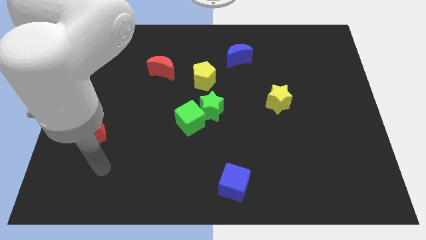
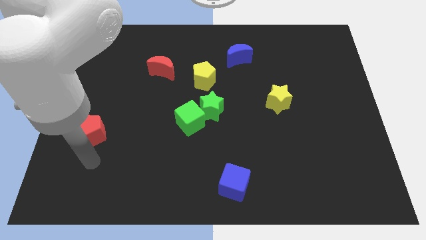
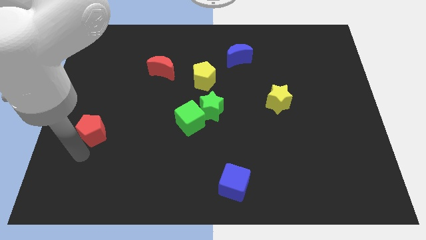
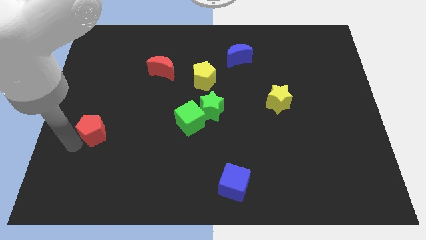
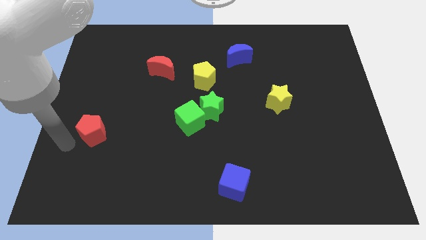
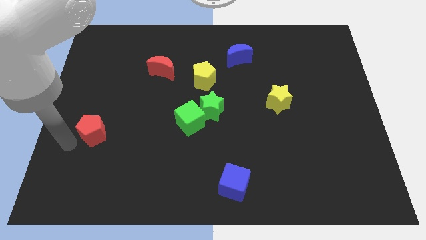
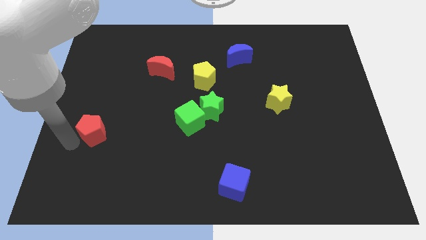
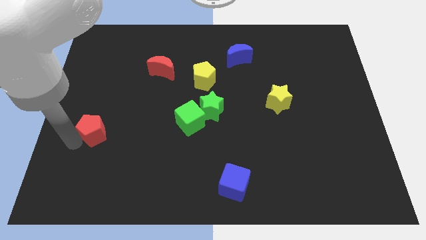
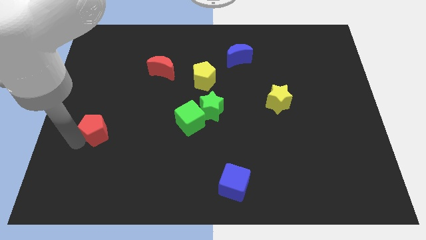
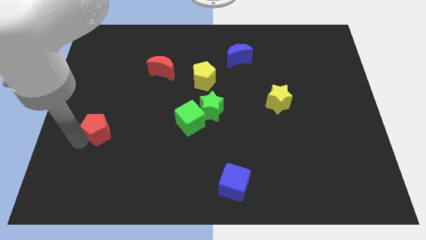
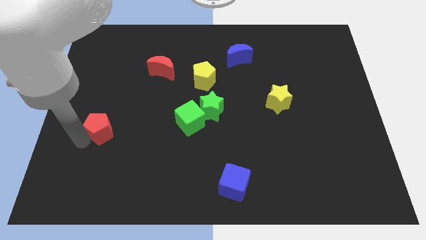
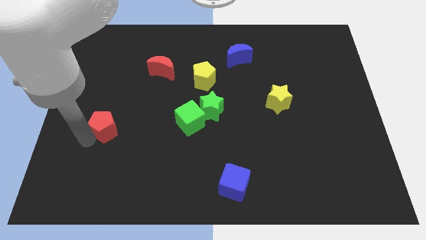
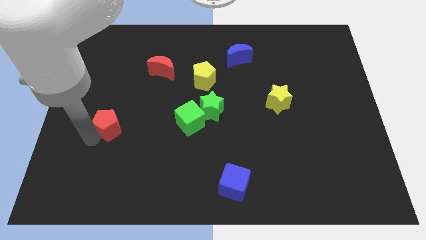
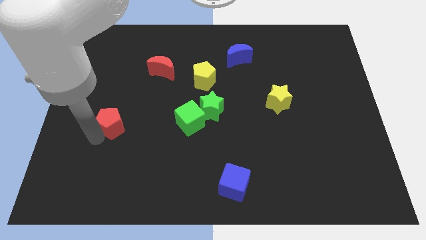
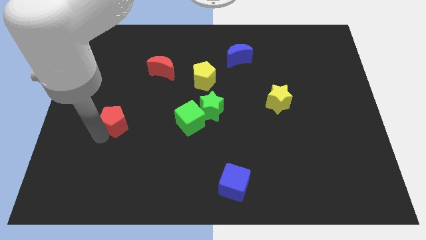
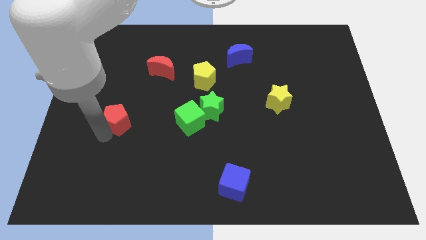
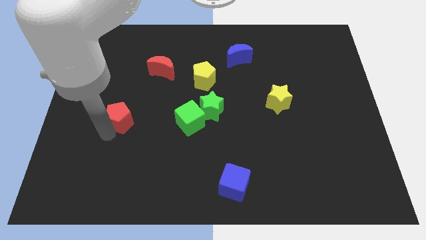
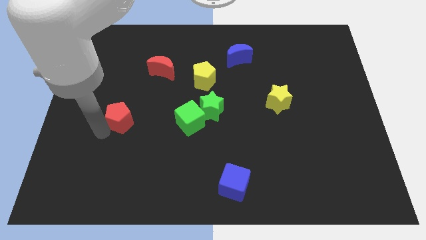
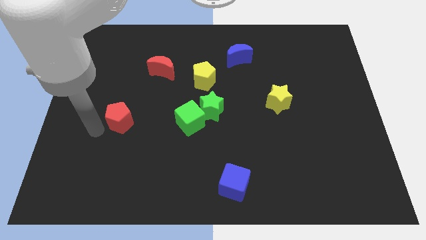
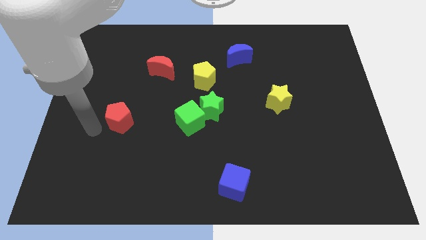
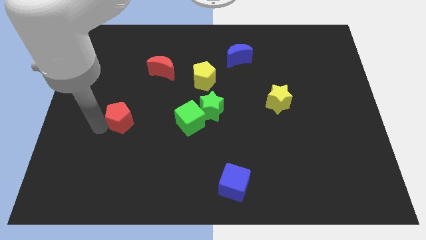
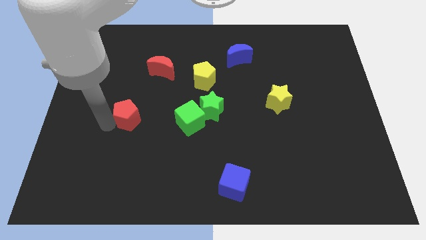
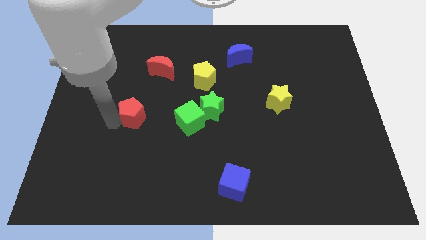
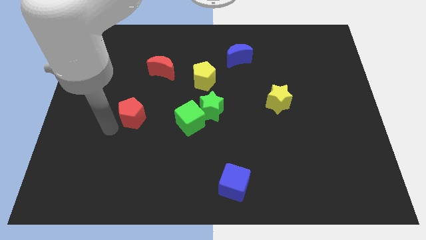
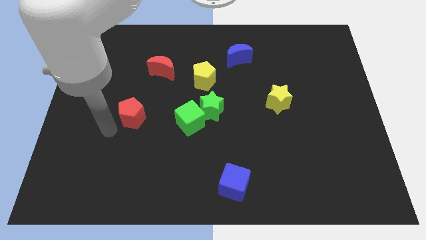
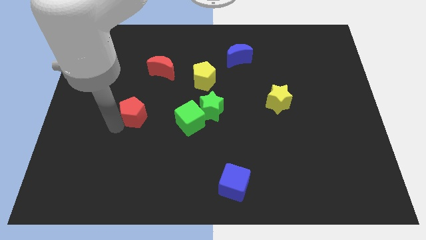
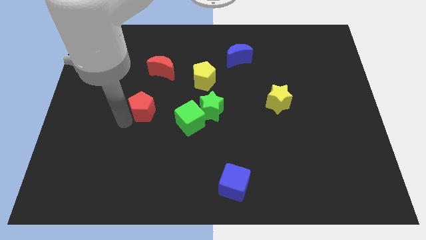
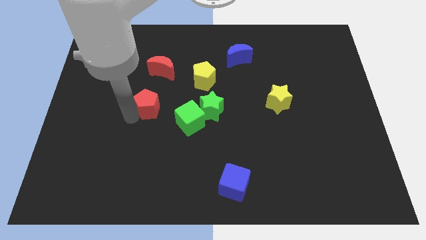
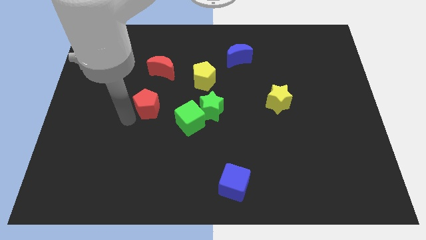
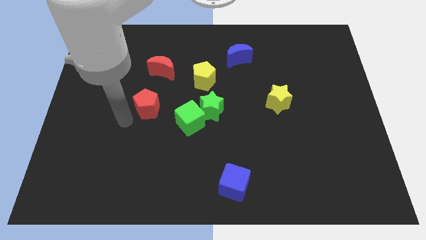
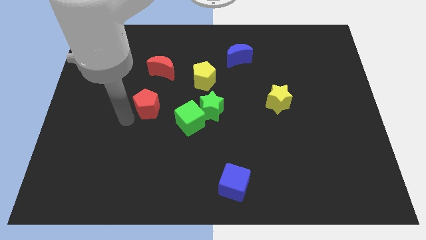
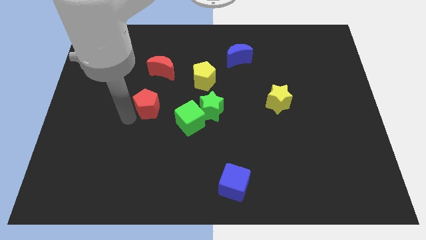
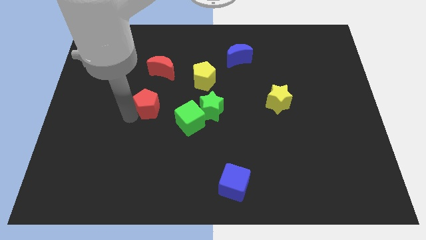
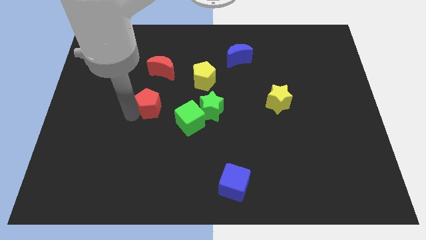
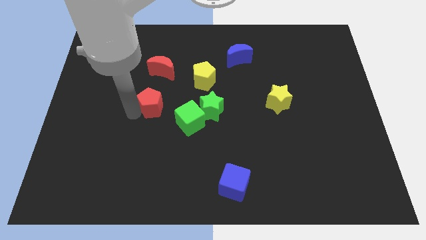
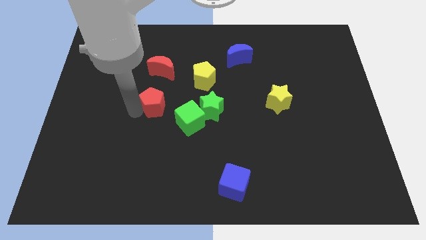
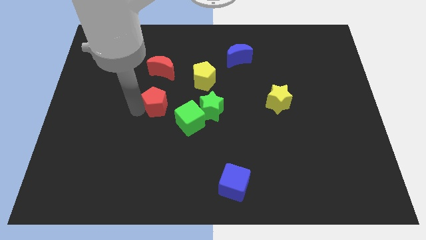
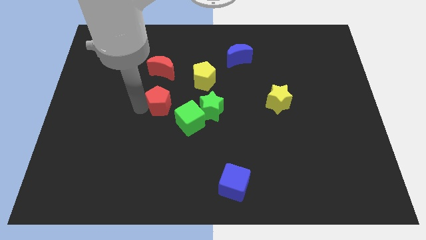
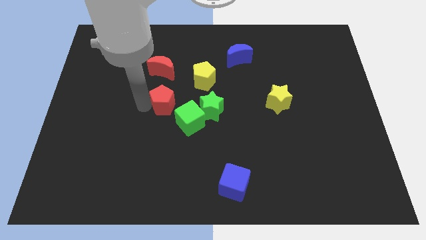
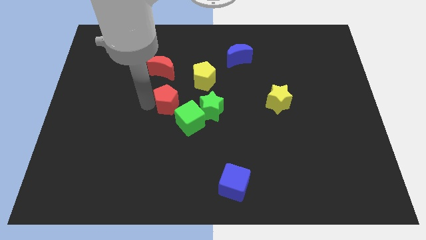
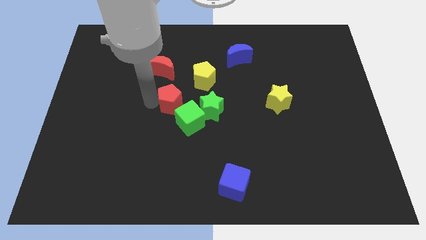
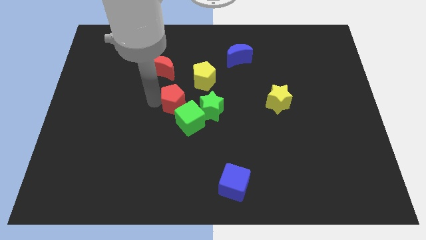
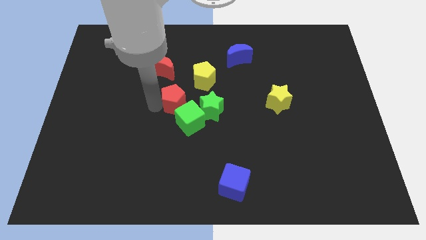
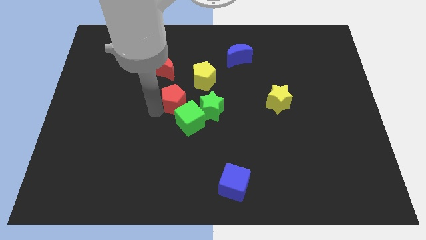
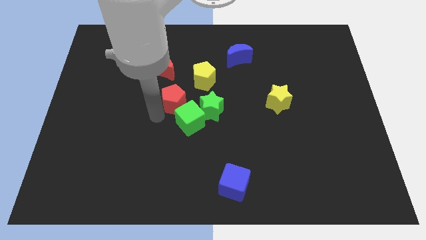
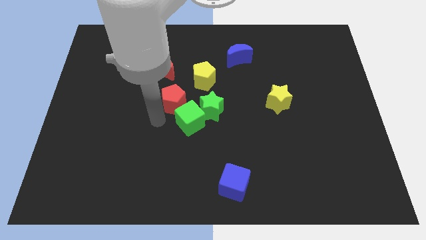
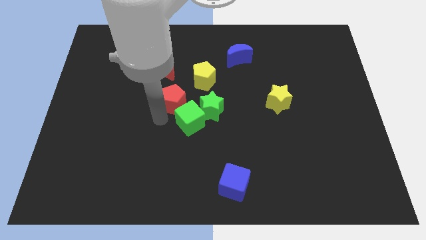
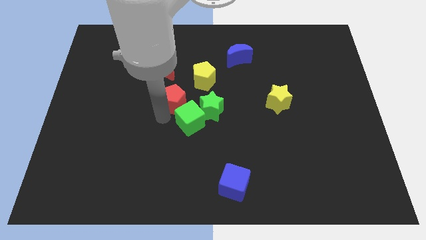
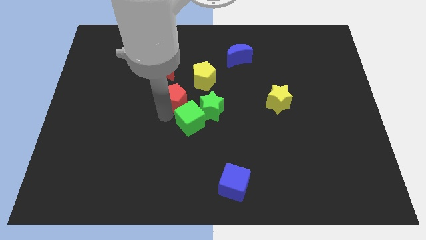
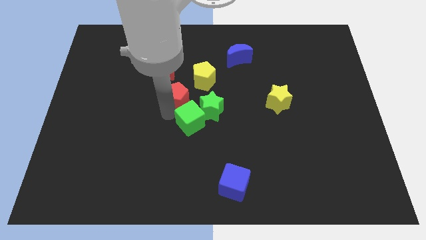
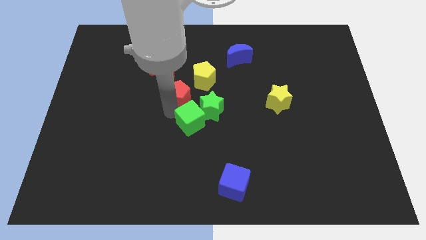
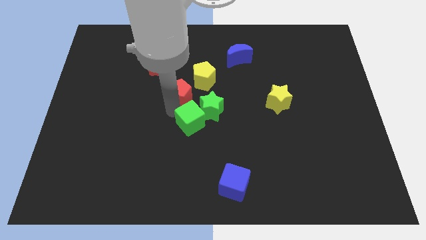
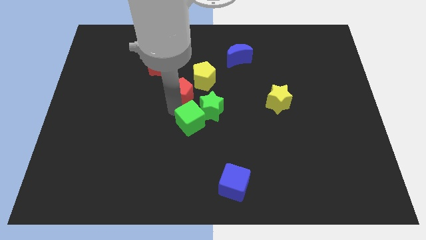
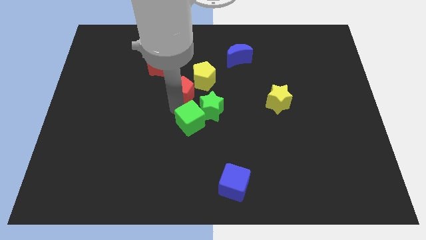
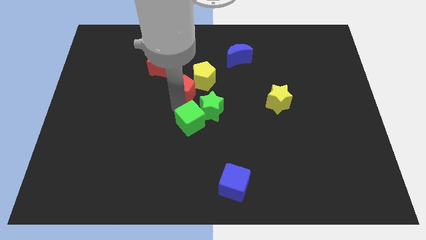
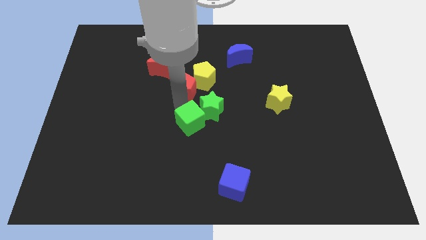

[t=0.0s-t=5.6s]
put the red pentagon to the yellow pentagon

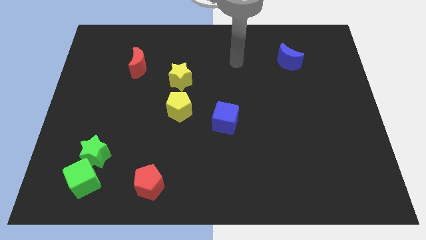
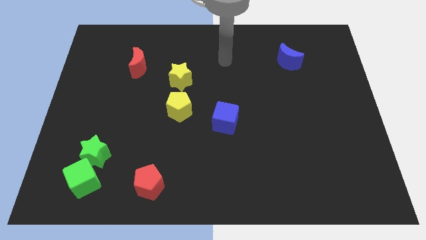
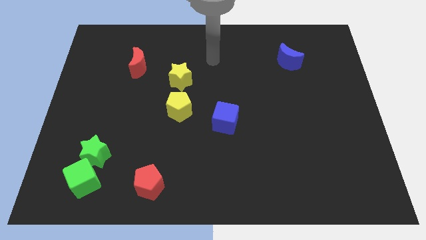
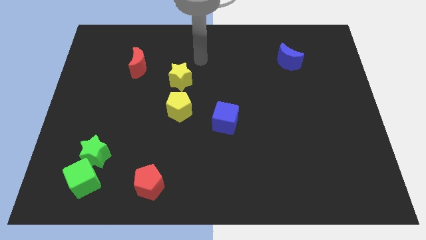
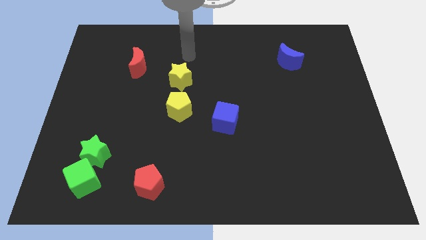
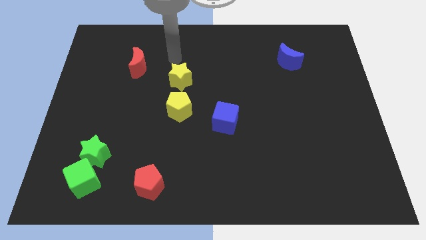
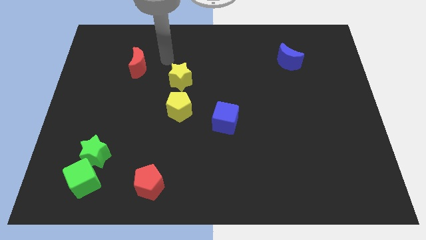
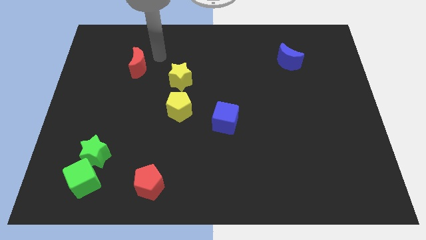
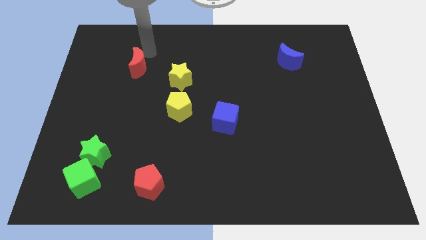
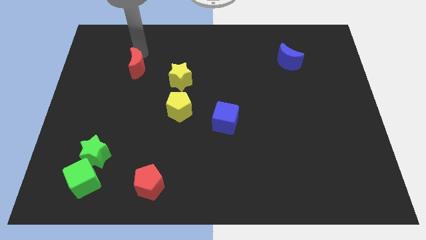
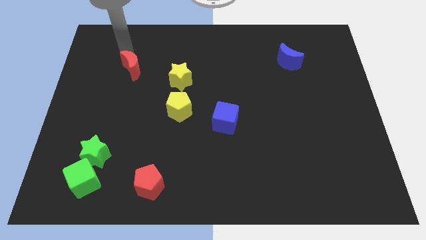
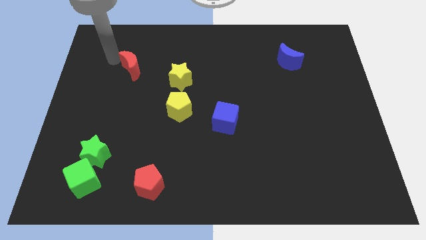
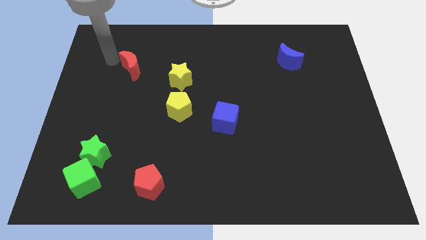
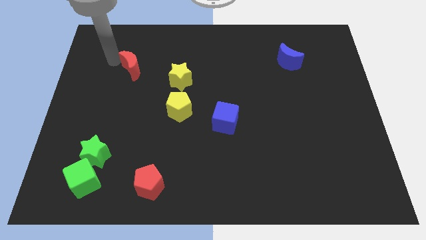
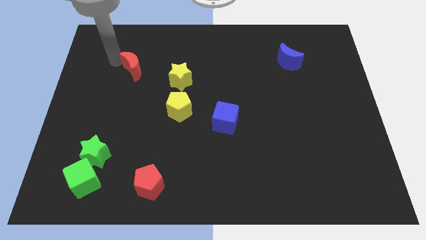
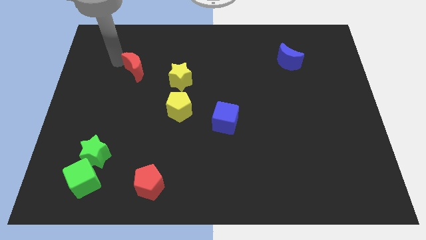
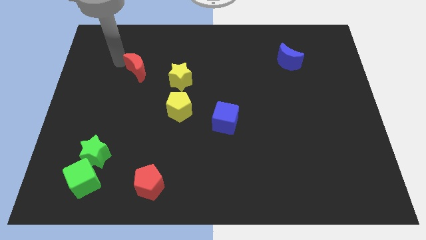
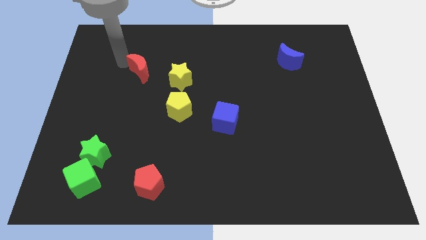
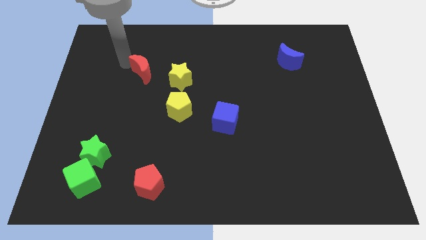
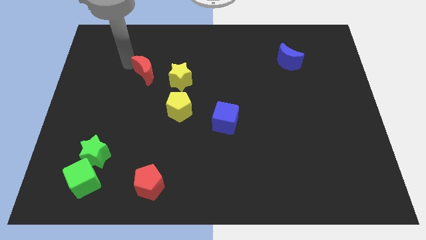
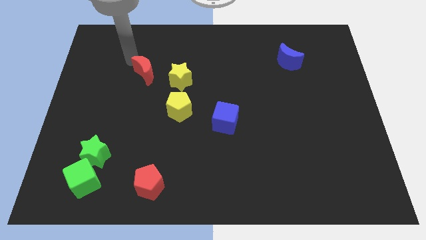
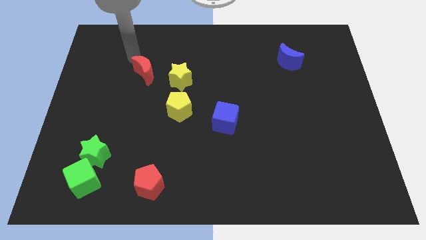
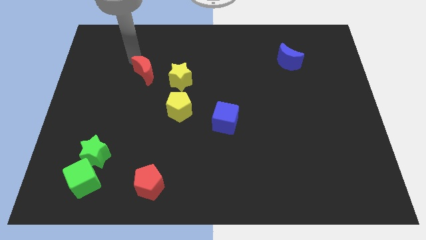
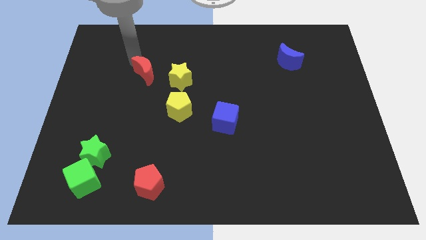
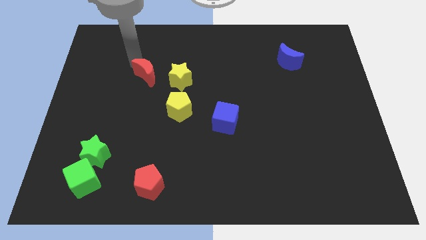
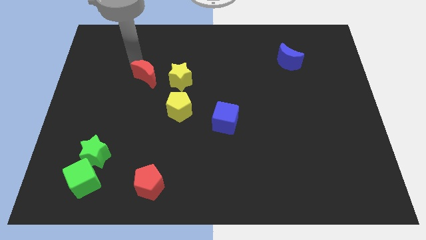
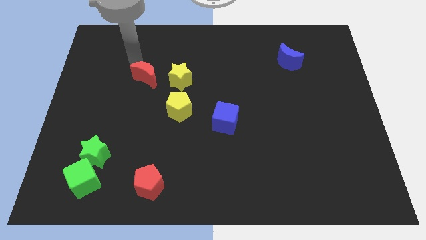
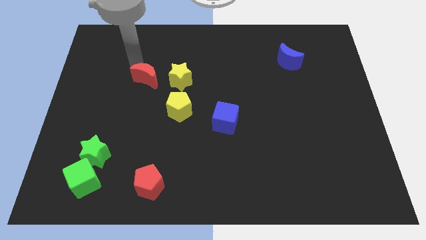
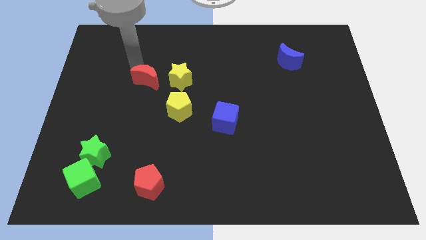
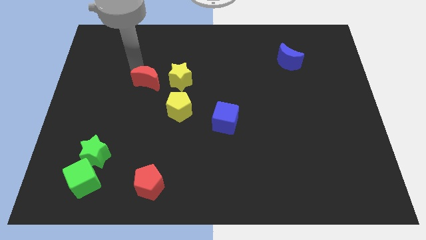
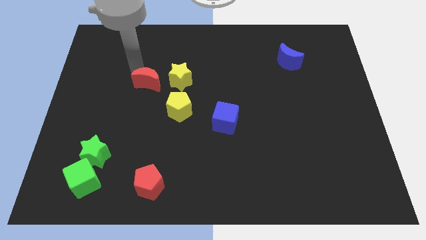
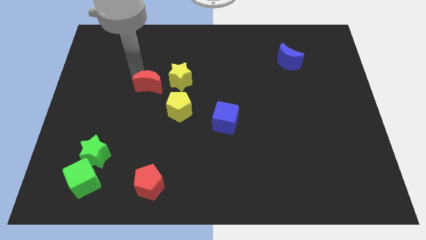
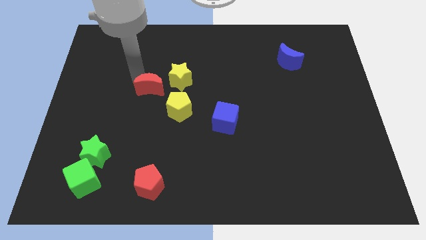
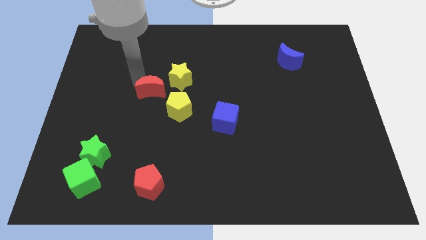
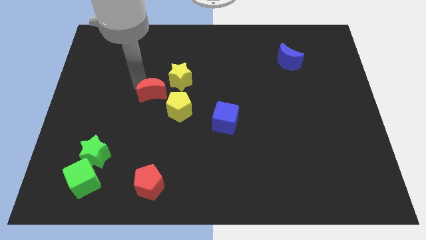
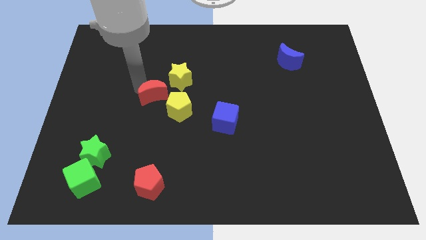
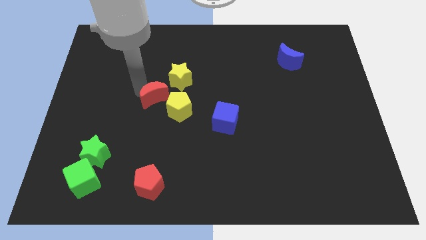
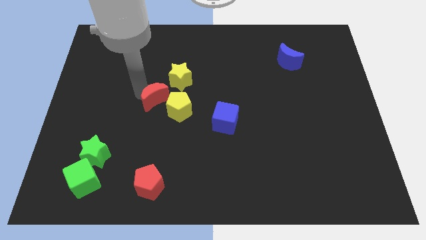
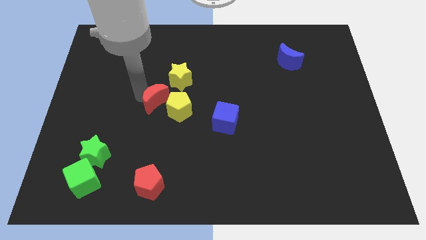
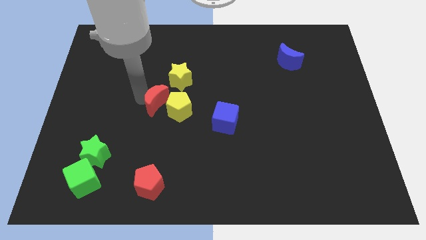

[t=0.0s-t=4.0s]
put the red moon to the yellow pentagon
